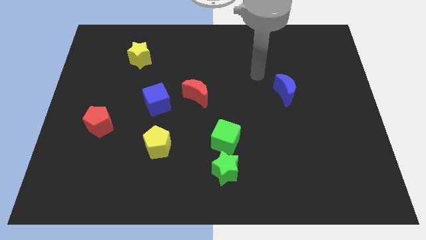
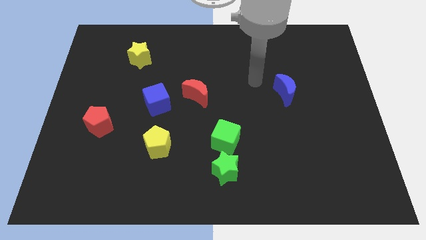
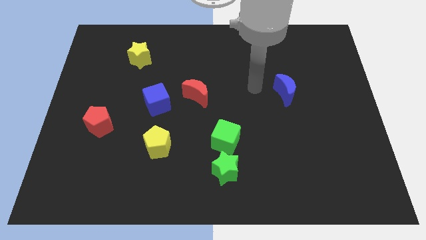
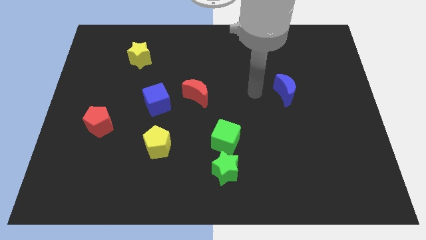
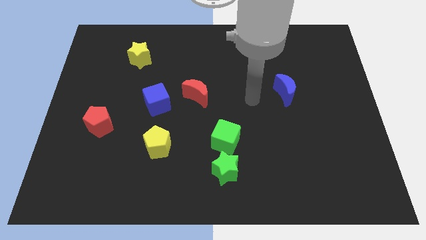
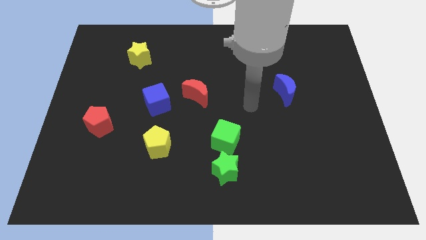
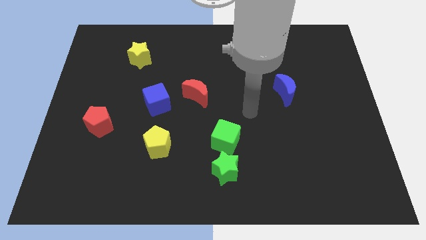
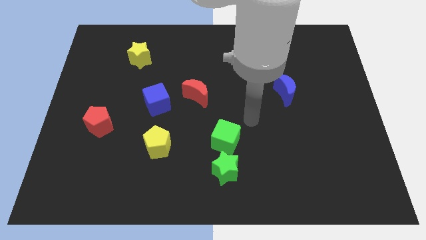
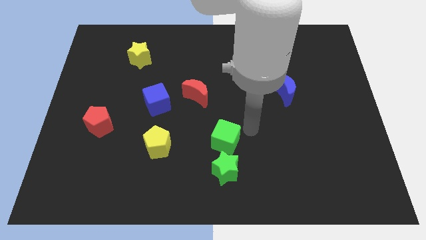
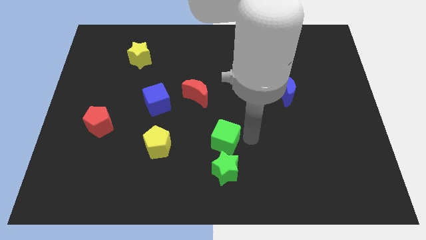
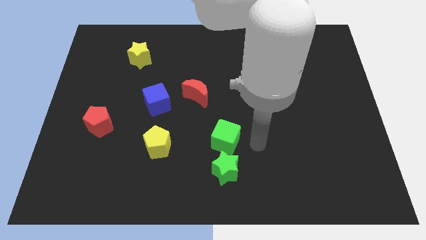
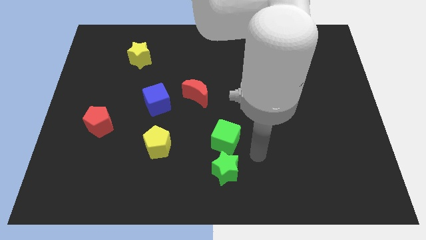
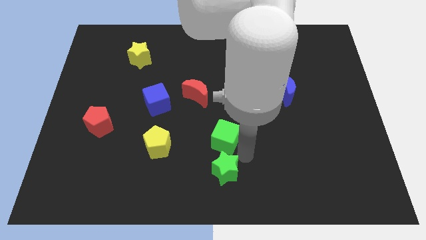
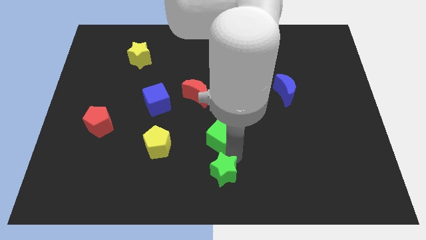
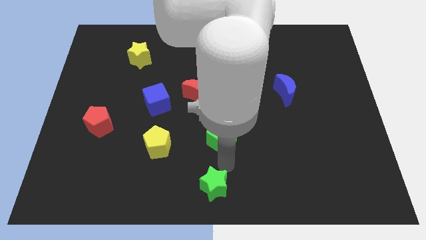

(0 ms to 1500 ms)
pull the green cube apart from the green star

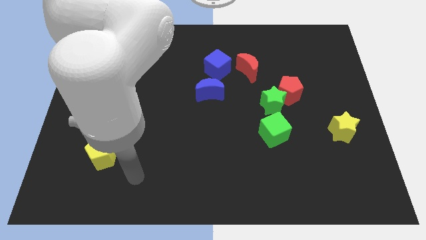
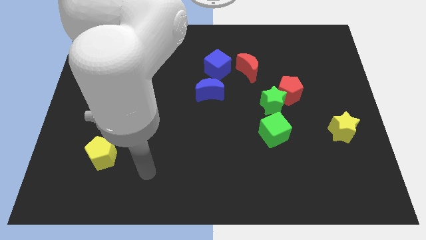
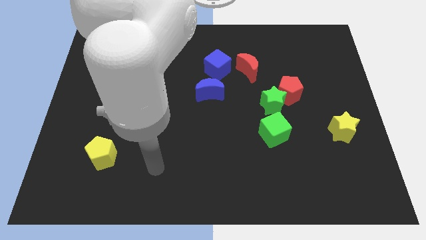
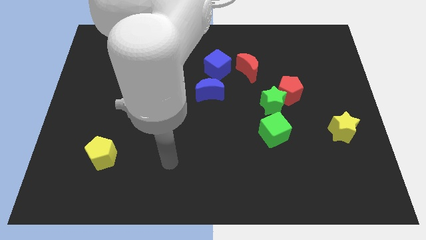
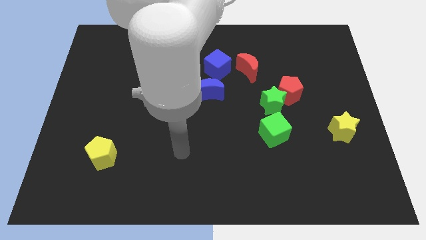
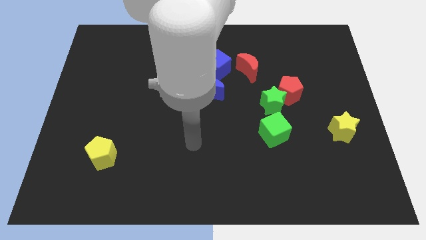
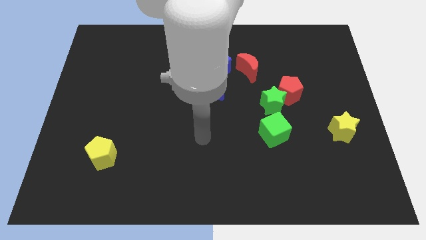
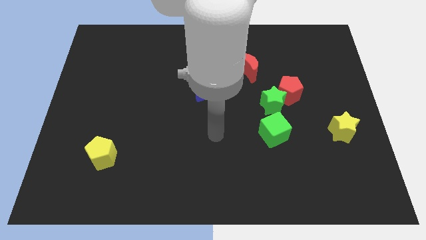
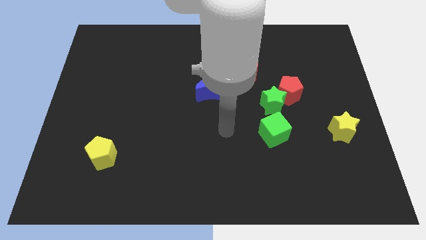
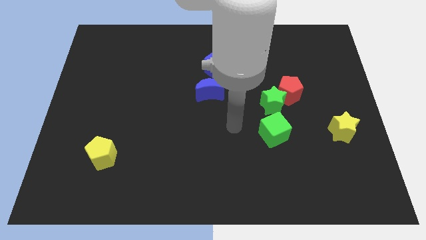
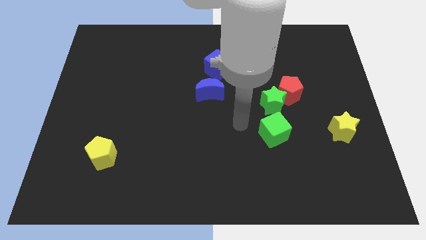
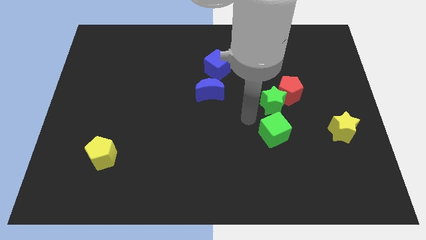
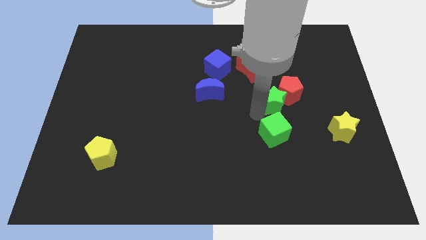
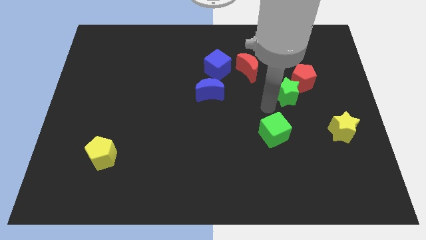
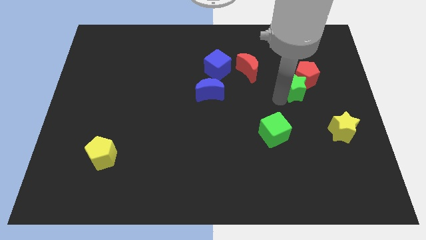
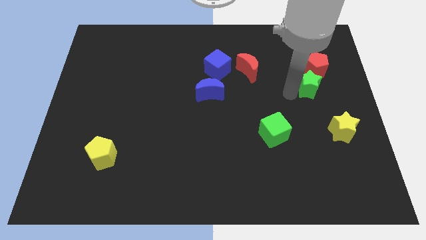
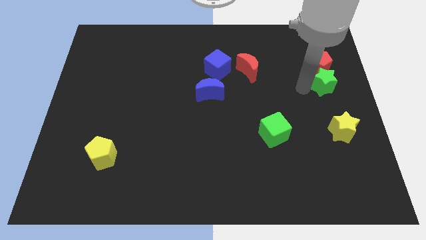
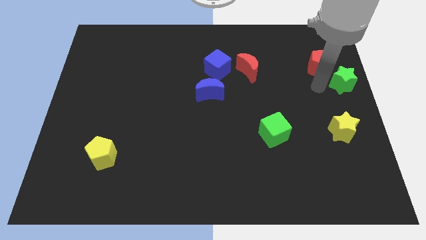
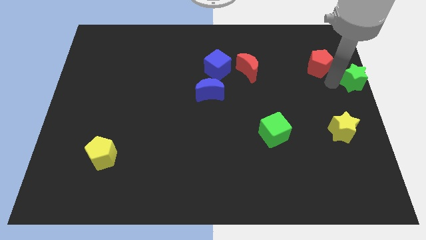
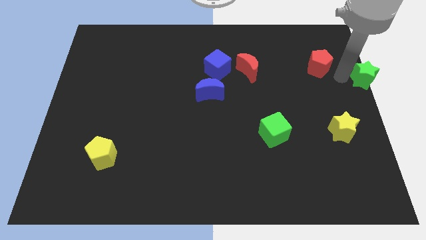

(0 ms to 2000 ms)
pull the red pentagon apart from the green star

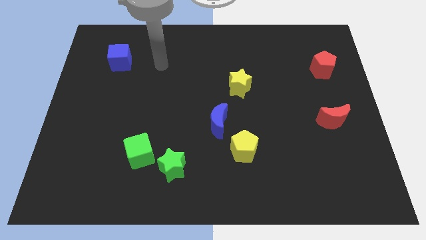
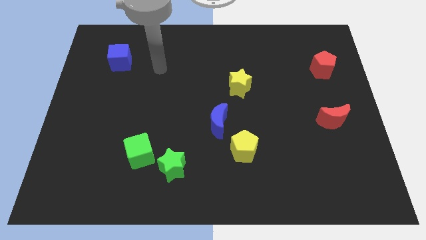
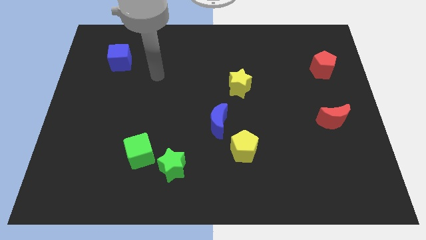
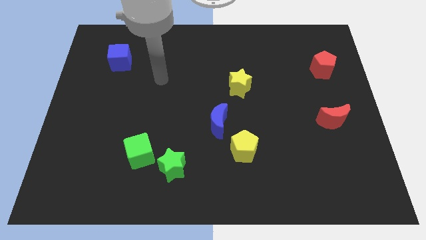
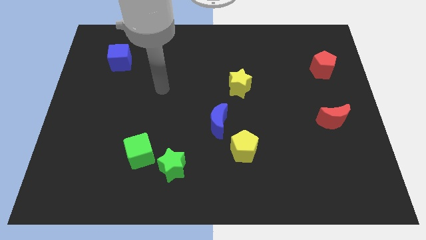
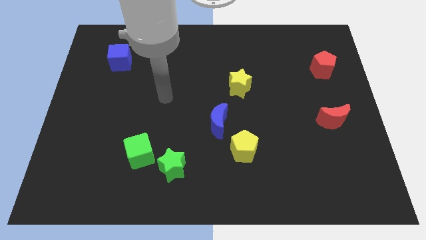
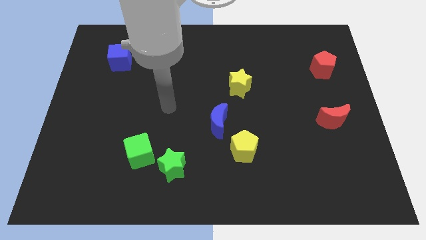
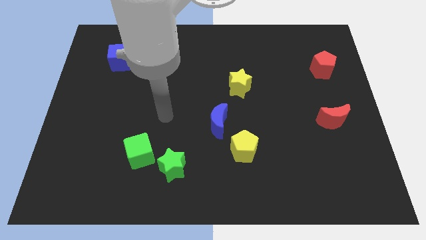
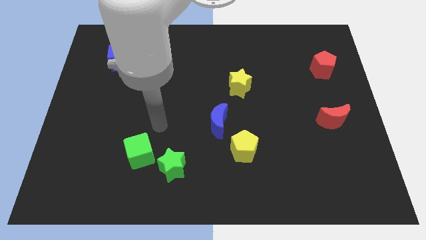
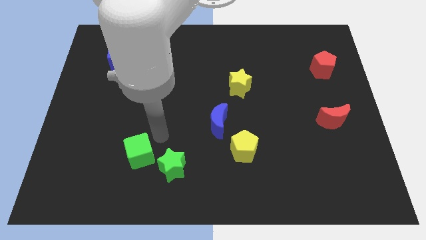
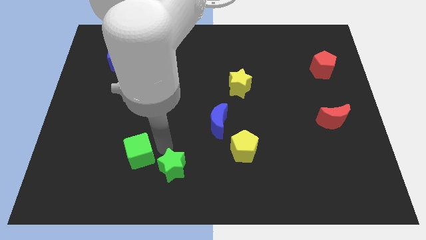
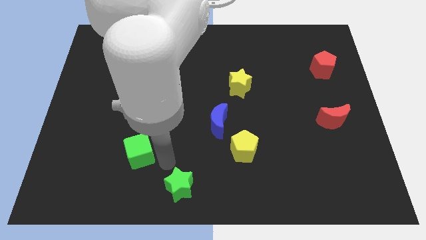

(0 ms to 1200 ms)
move the green cube away from the green star

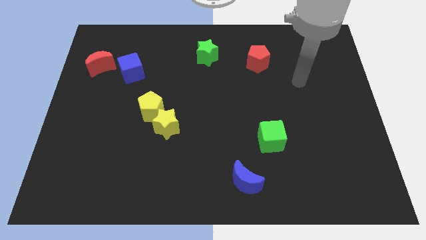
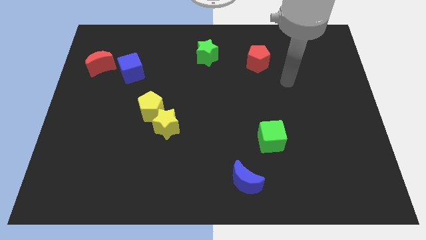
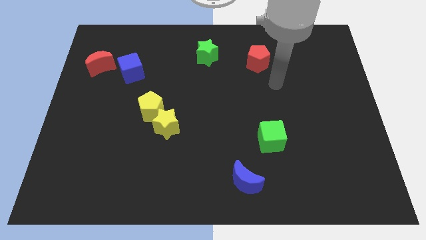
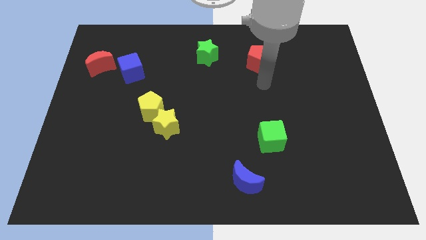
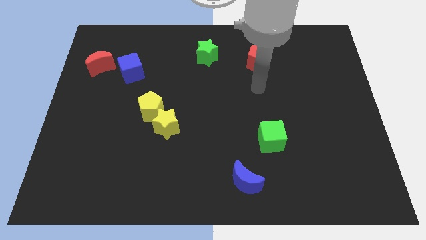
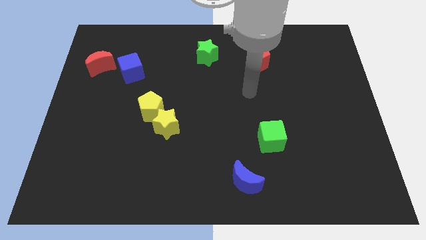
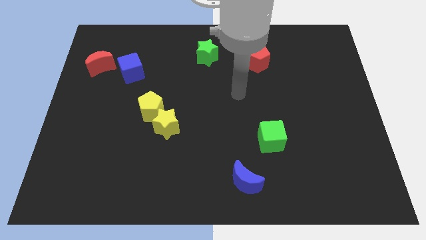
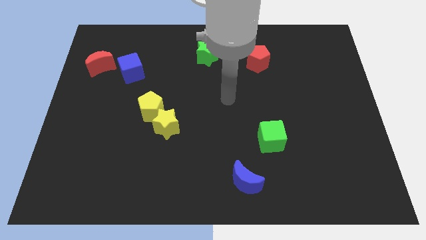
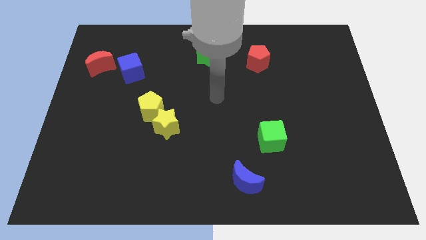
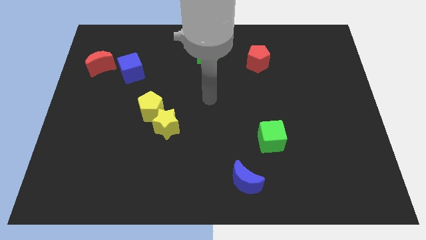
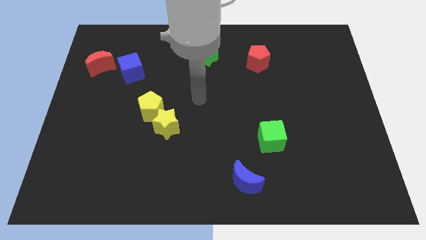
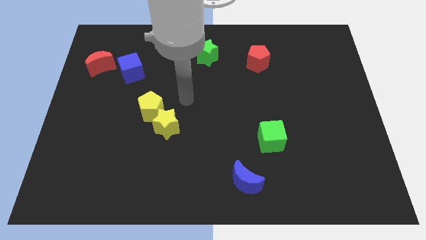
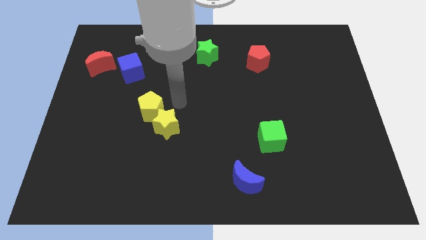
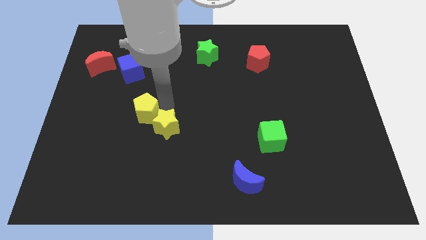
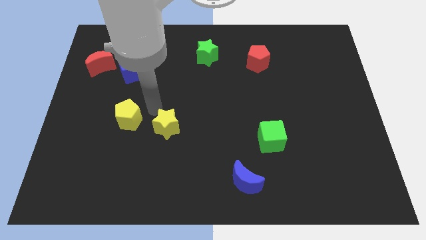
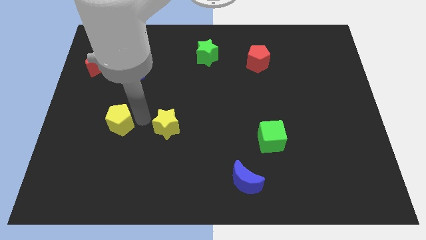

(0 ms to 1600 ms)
move the yellow star away from the yellow pentagon

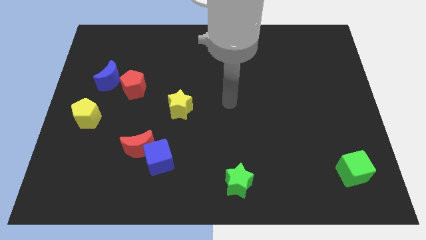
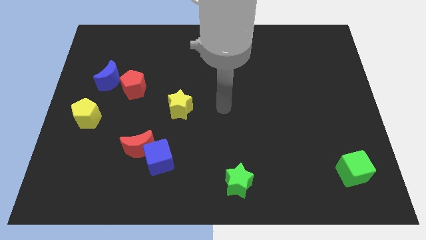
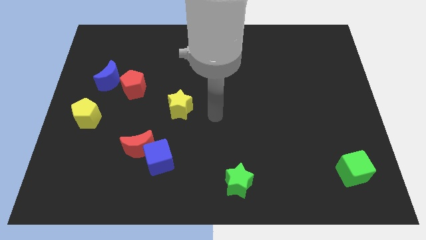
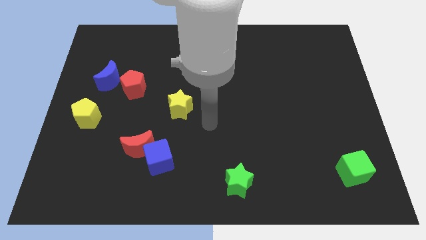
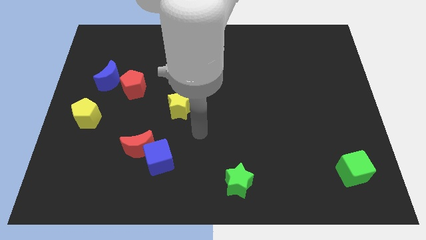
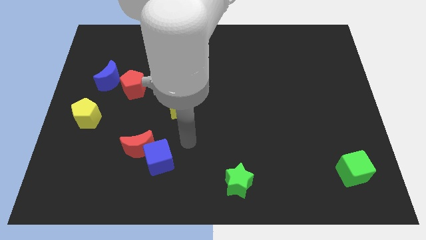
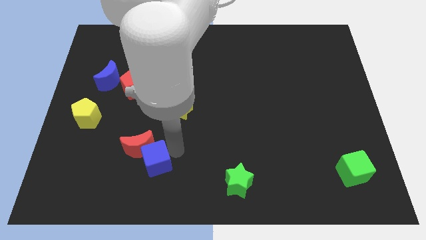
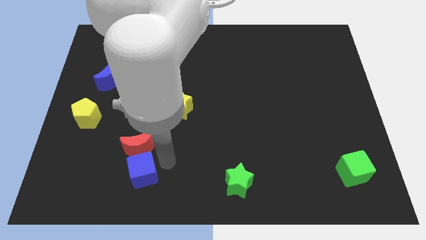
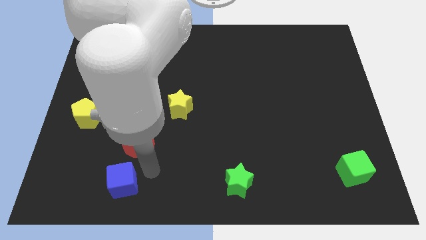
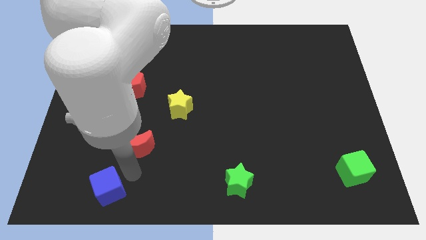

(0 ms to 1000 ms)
pull the red moon apart from the blue cube

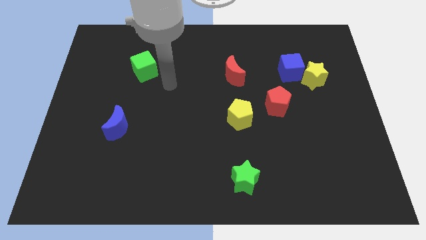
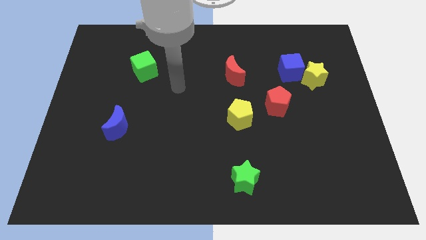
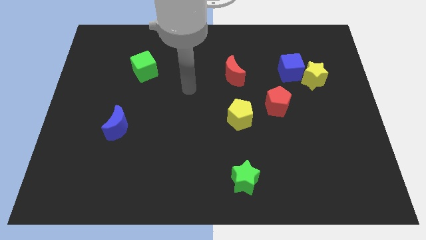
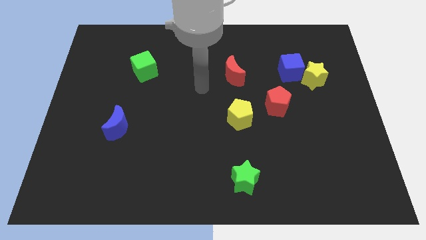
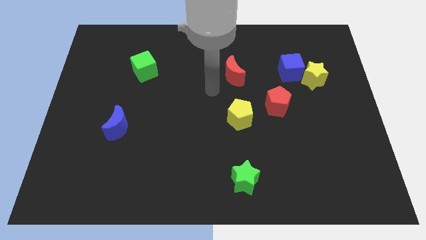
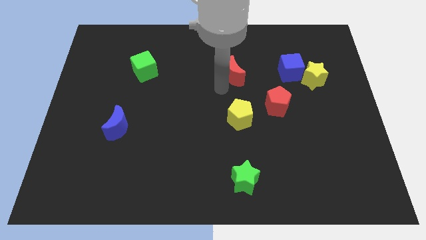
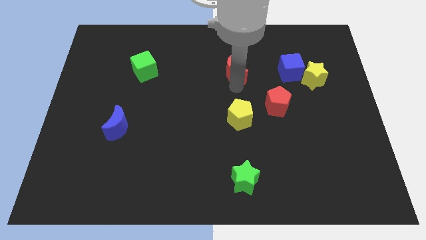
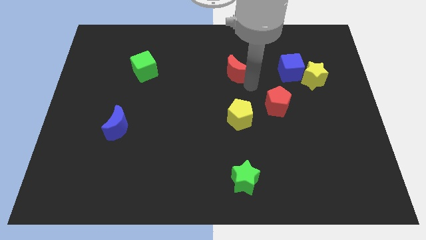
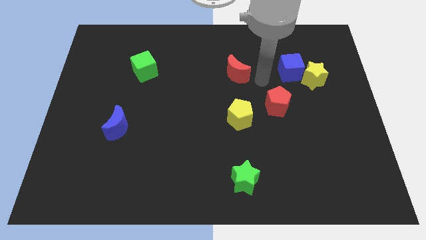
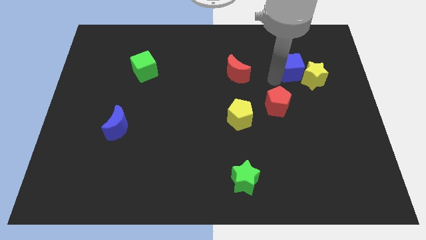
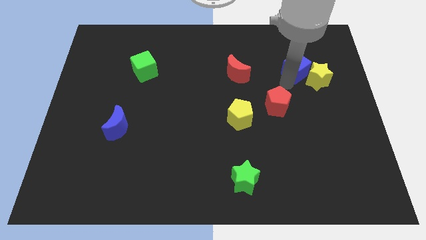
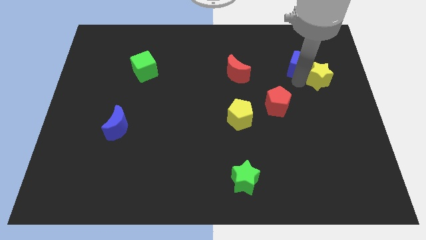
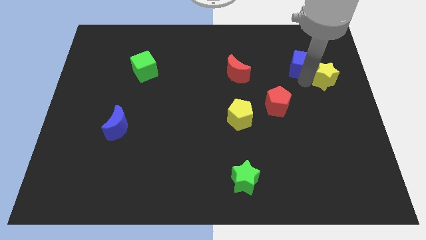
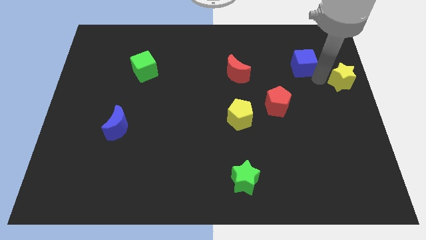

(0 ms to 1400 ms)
move the blue cube away from the yellow star

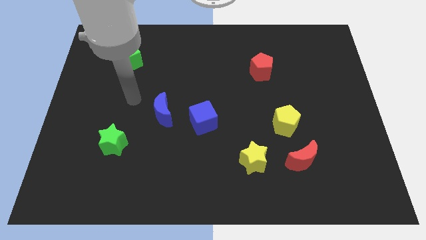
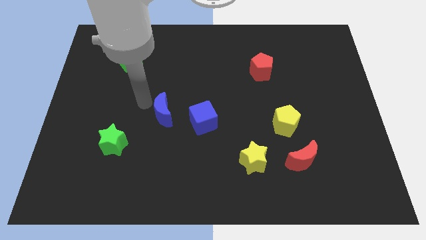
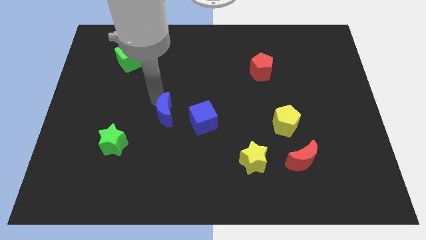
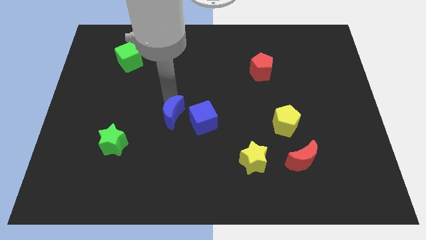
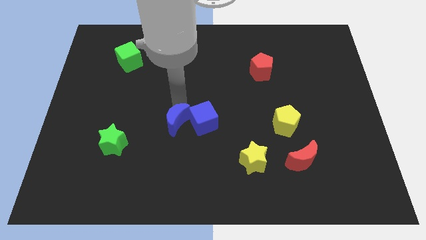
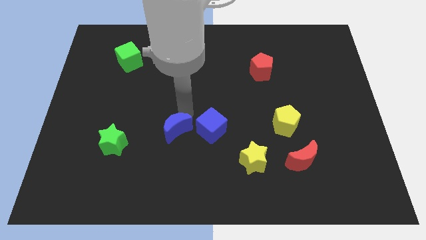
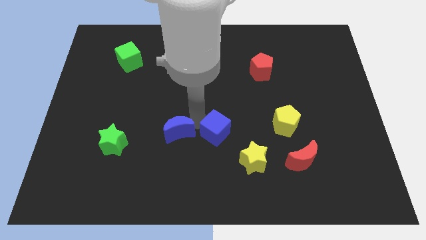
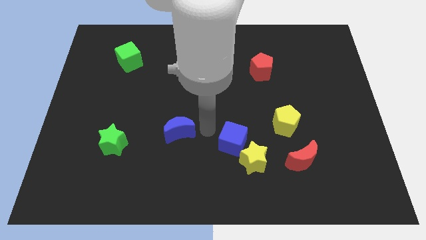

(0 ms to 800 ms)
pull the blue moon apart from the blue cube
